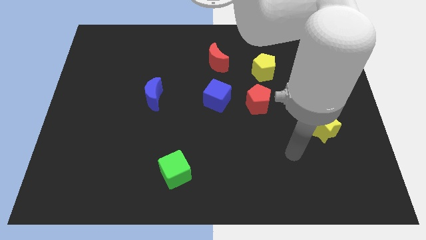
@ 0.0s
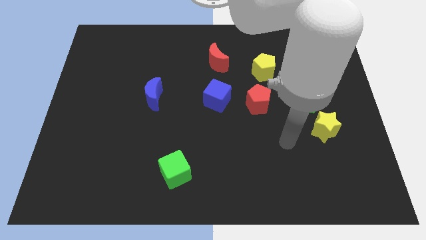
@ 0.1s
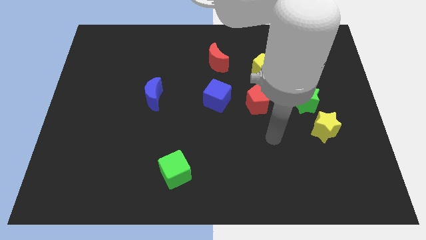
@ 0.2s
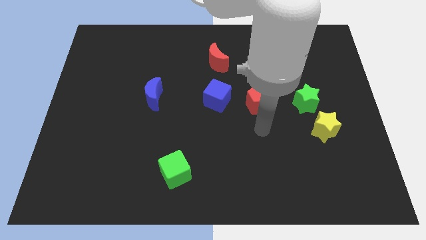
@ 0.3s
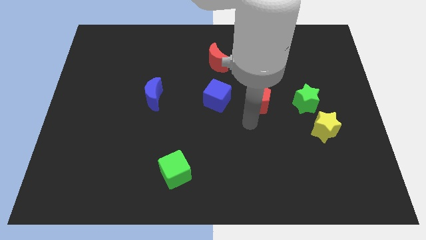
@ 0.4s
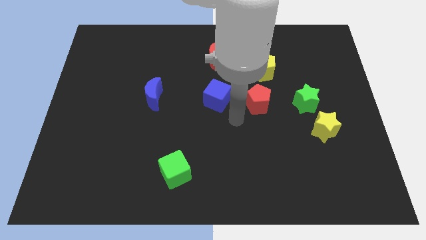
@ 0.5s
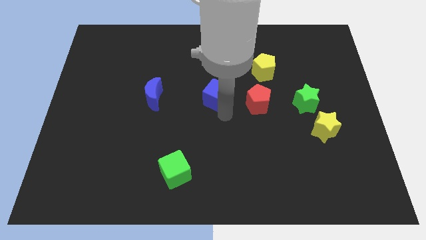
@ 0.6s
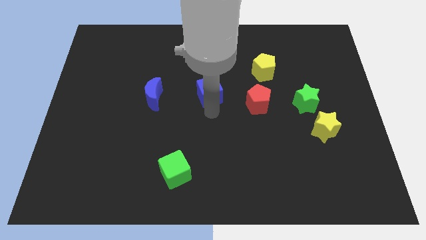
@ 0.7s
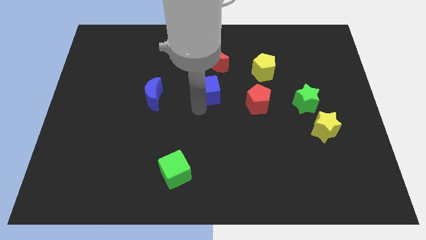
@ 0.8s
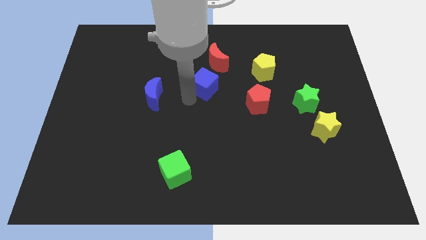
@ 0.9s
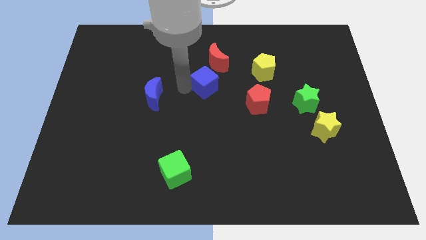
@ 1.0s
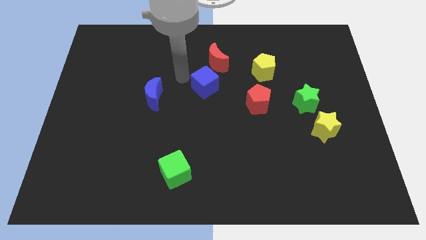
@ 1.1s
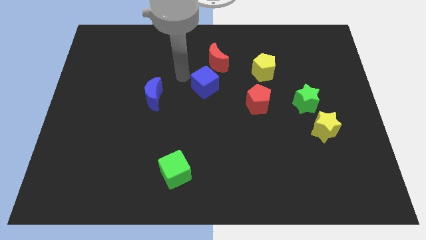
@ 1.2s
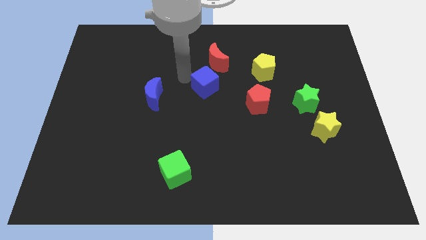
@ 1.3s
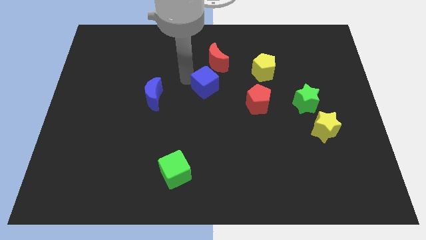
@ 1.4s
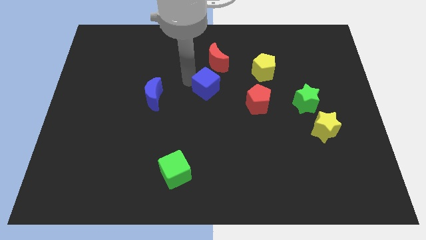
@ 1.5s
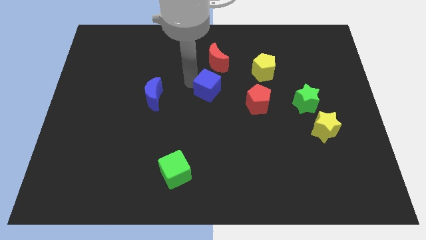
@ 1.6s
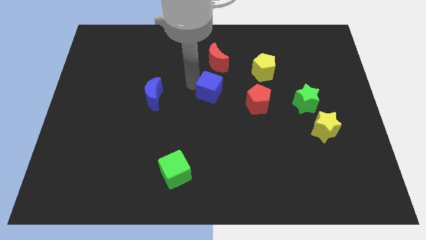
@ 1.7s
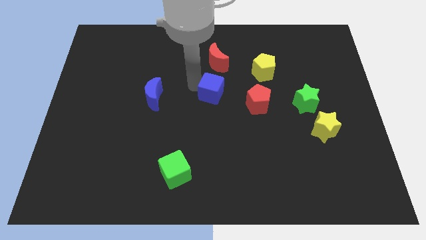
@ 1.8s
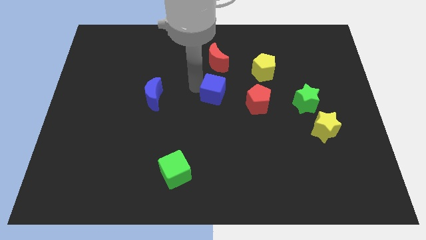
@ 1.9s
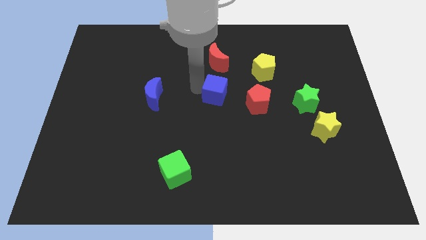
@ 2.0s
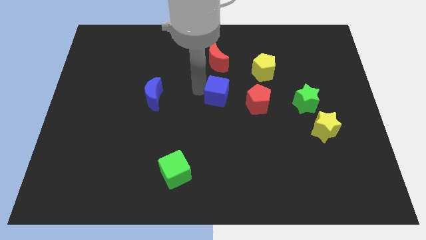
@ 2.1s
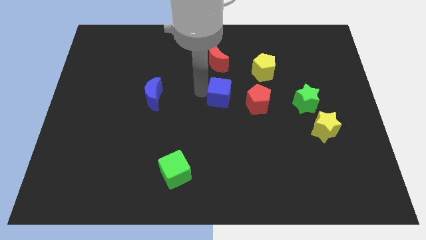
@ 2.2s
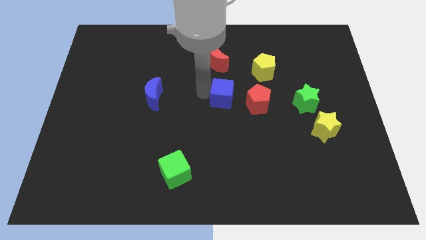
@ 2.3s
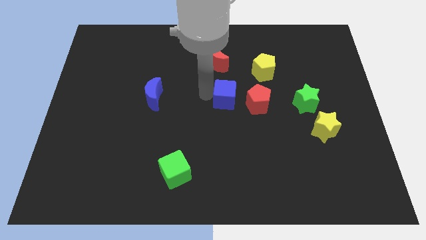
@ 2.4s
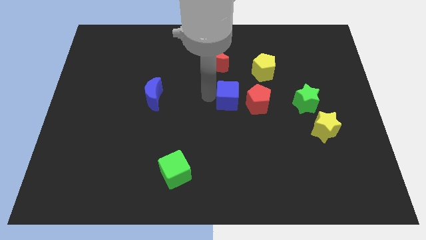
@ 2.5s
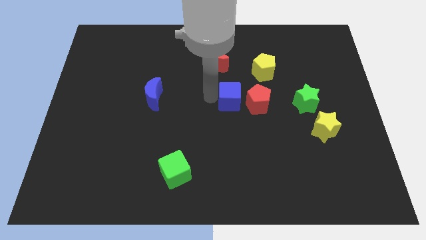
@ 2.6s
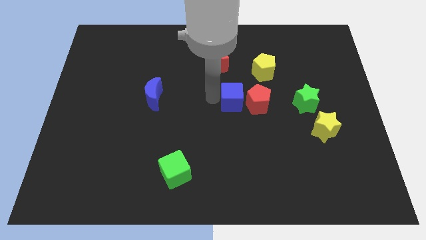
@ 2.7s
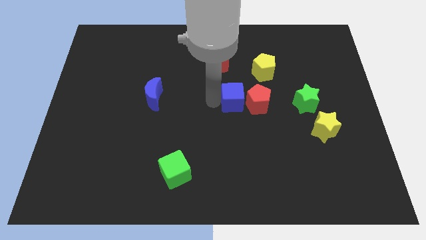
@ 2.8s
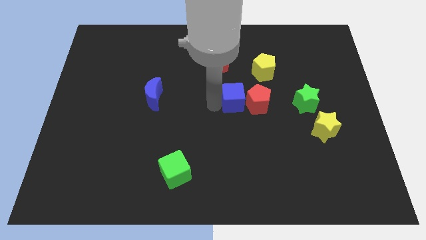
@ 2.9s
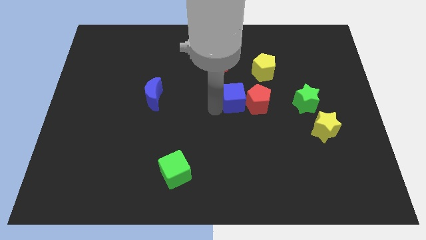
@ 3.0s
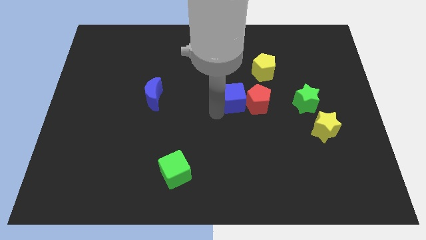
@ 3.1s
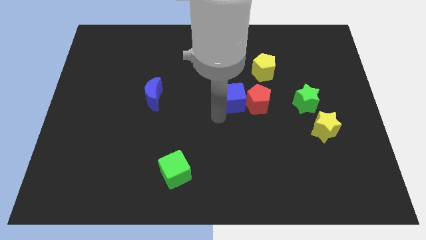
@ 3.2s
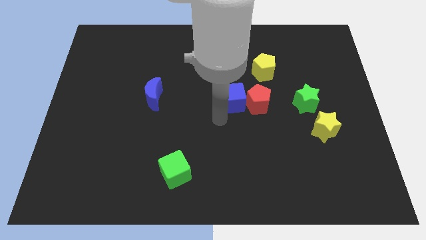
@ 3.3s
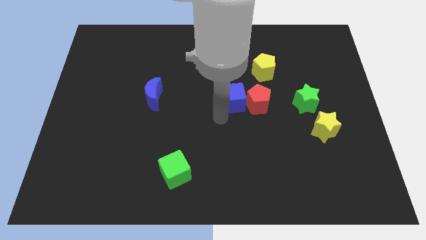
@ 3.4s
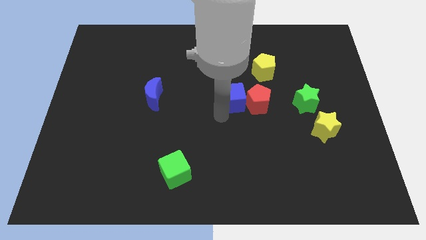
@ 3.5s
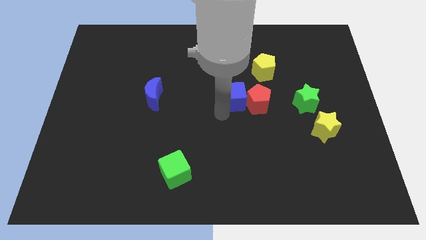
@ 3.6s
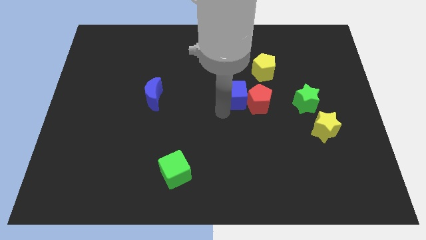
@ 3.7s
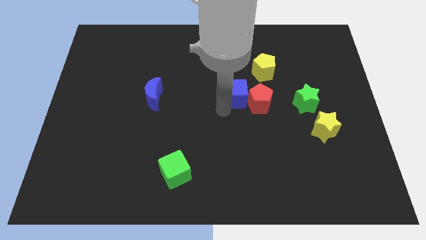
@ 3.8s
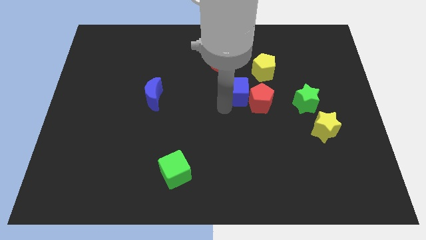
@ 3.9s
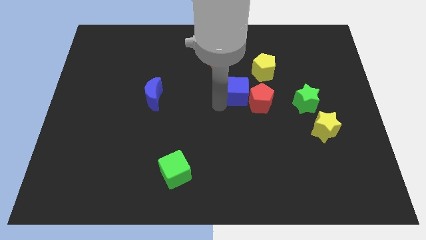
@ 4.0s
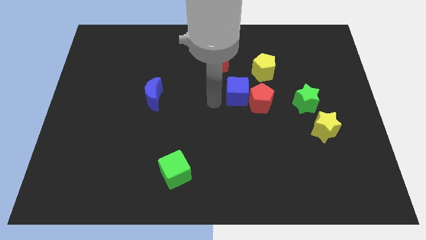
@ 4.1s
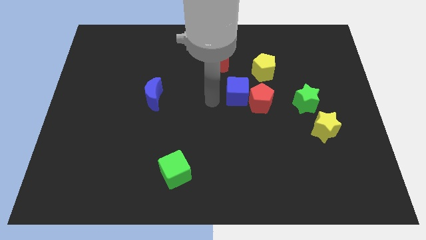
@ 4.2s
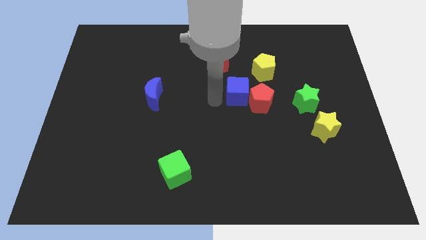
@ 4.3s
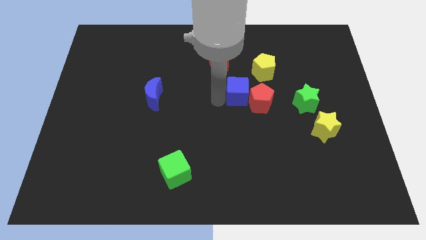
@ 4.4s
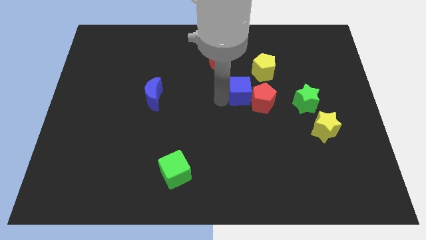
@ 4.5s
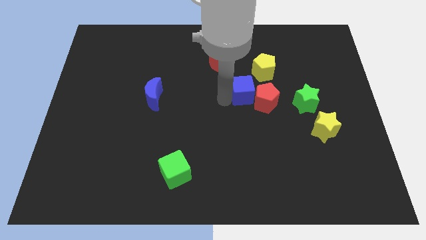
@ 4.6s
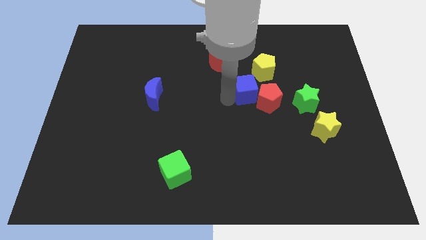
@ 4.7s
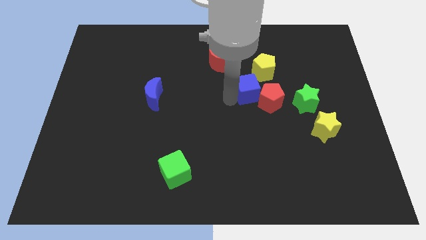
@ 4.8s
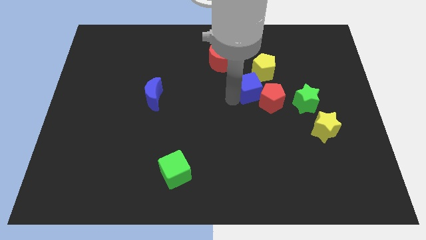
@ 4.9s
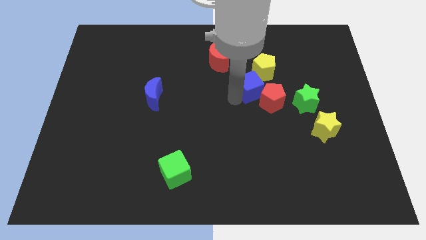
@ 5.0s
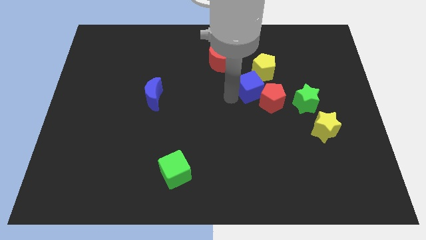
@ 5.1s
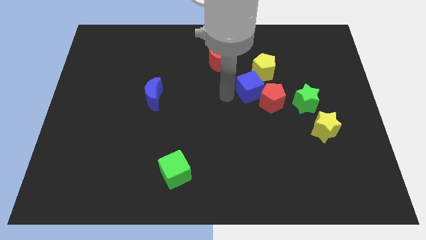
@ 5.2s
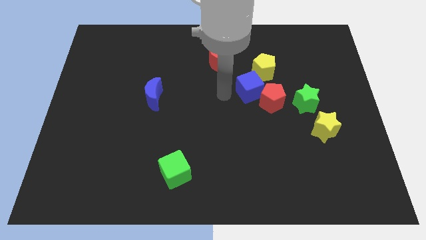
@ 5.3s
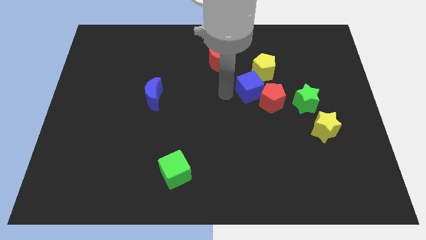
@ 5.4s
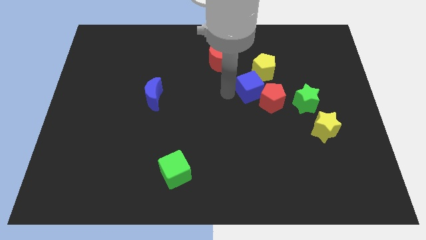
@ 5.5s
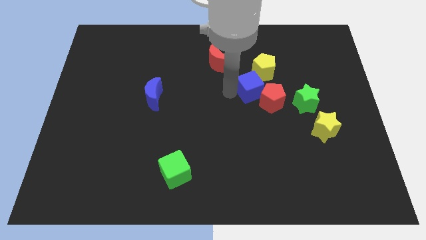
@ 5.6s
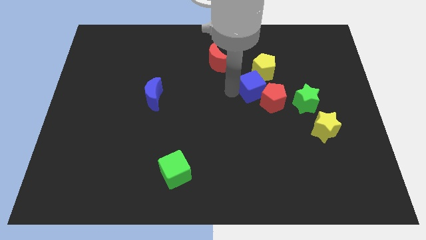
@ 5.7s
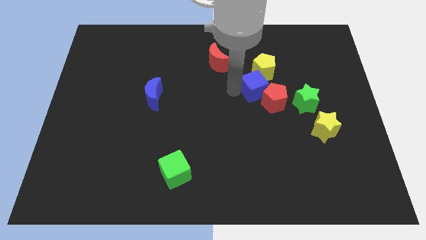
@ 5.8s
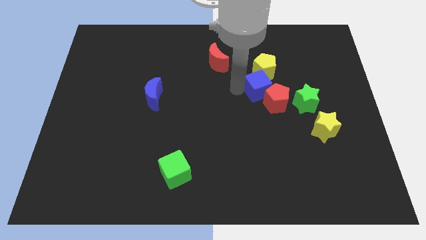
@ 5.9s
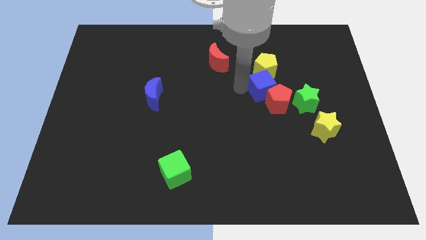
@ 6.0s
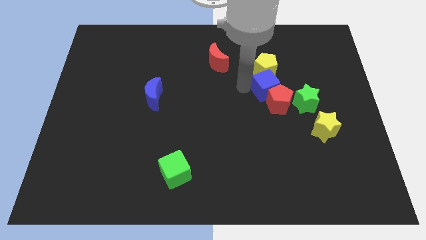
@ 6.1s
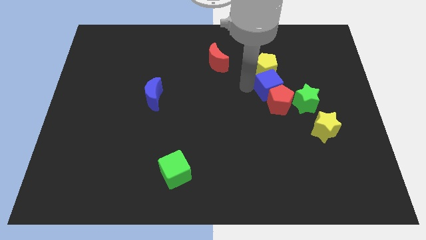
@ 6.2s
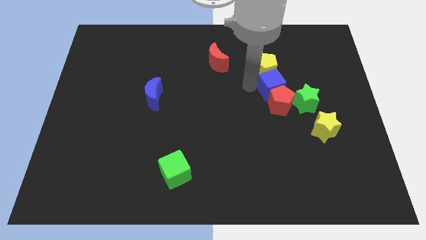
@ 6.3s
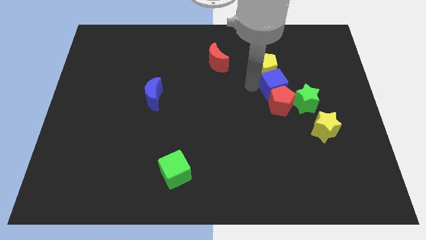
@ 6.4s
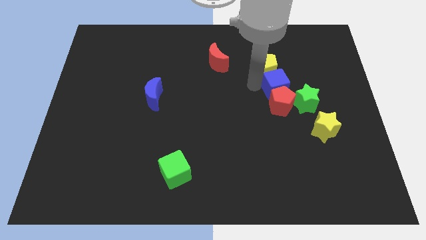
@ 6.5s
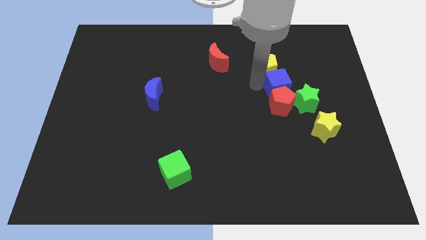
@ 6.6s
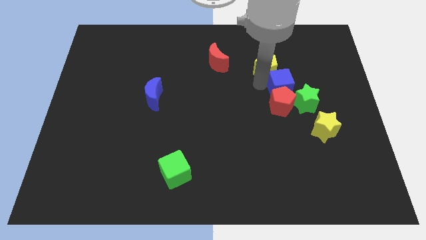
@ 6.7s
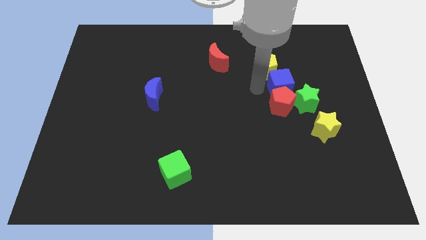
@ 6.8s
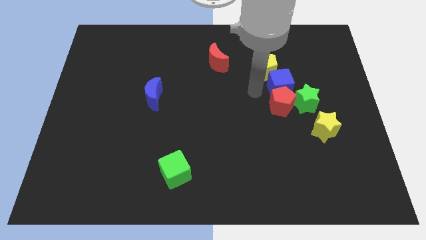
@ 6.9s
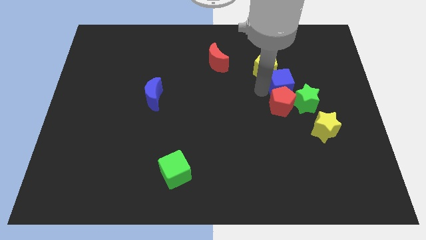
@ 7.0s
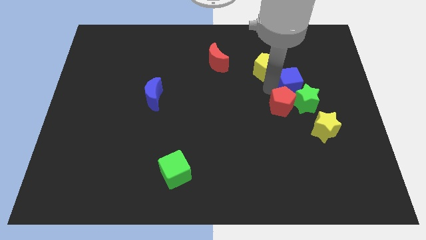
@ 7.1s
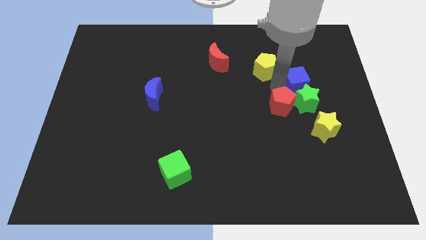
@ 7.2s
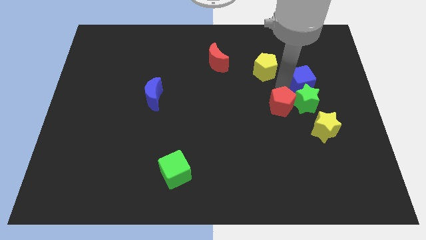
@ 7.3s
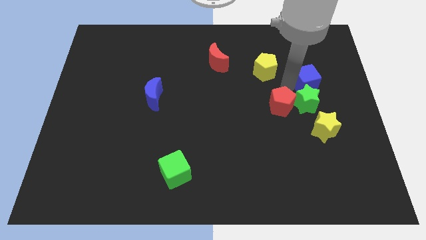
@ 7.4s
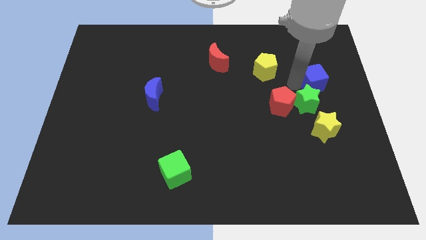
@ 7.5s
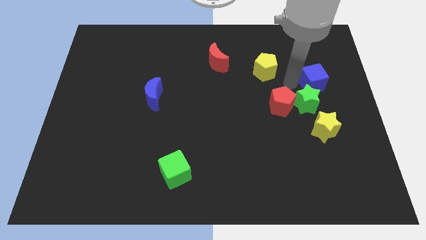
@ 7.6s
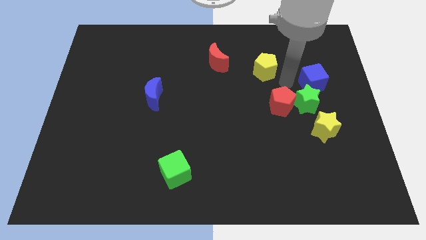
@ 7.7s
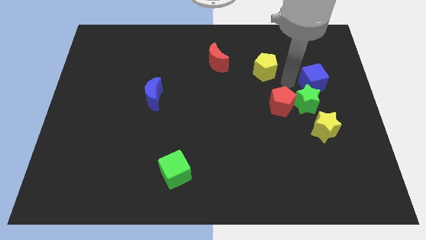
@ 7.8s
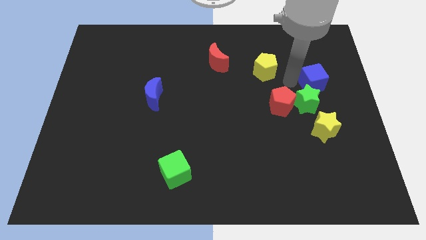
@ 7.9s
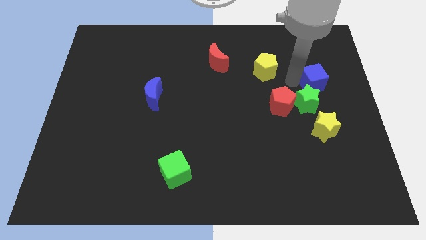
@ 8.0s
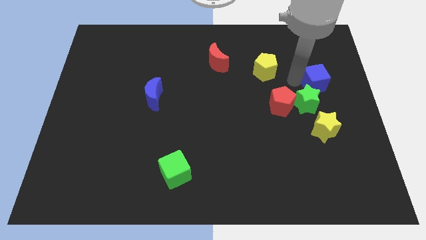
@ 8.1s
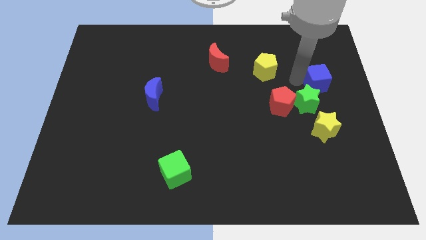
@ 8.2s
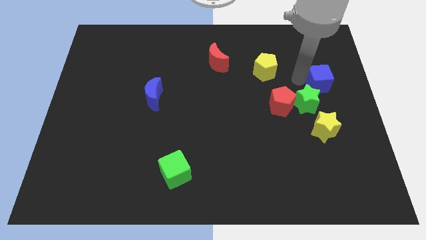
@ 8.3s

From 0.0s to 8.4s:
push the blue cube to the right side
